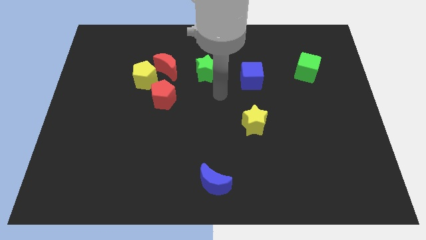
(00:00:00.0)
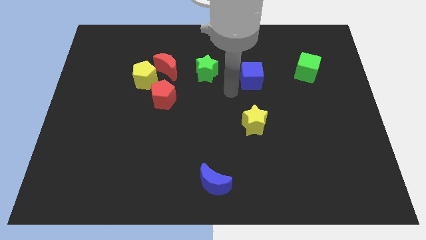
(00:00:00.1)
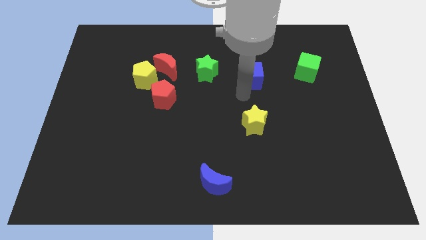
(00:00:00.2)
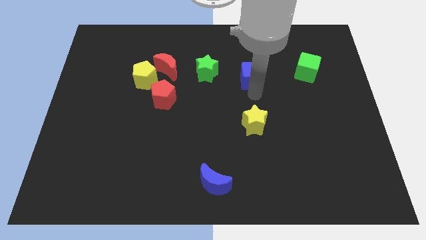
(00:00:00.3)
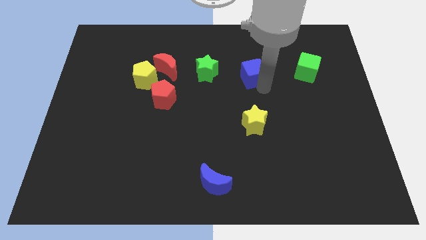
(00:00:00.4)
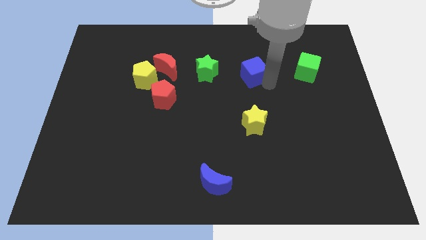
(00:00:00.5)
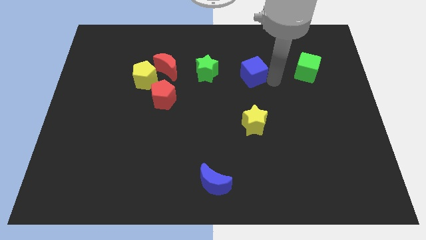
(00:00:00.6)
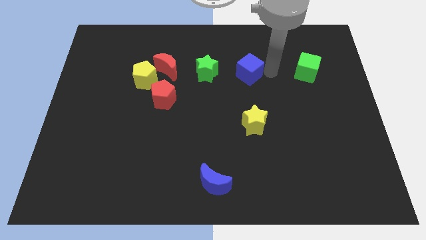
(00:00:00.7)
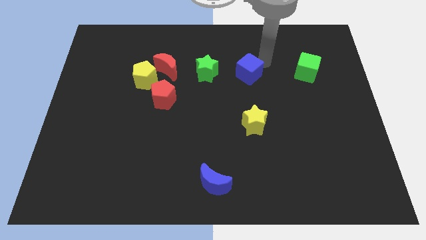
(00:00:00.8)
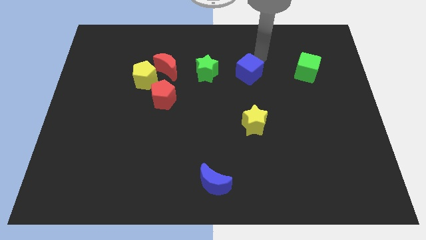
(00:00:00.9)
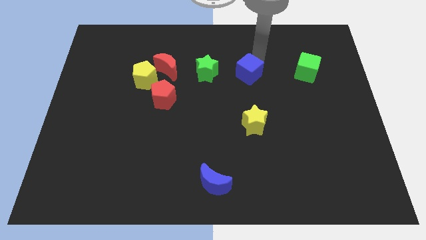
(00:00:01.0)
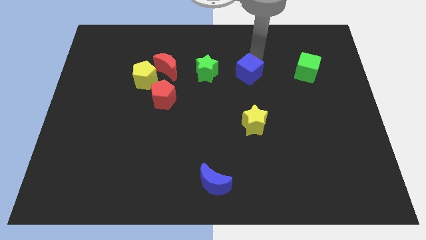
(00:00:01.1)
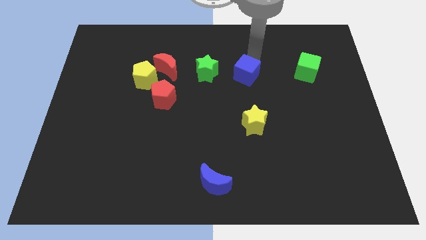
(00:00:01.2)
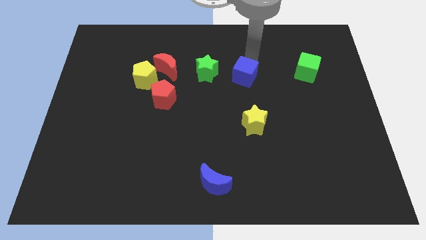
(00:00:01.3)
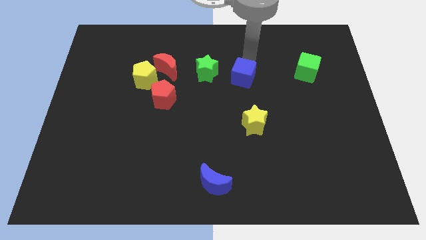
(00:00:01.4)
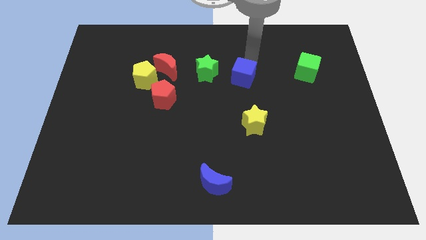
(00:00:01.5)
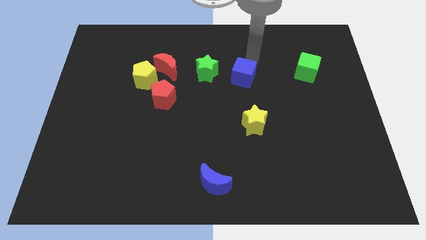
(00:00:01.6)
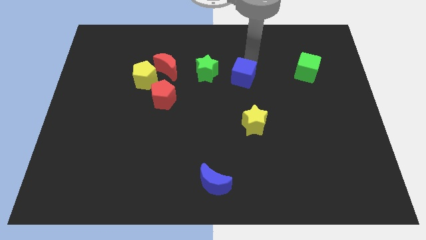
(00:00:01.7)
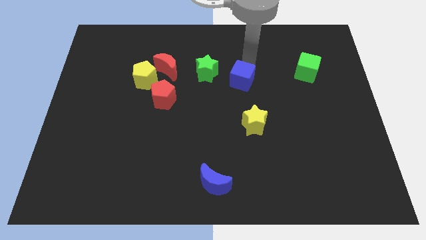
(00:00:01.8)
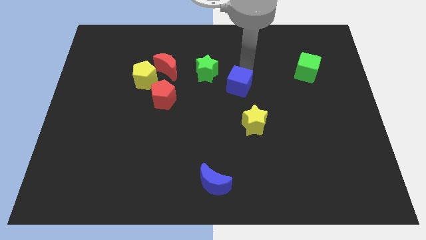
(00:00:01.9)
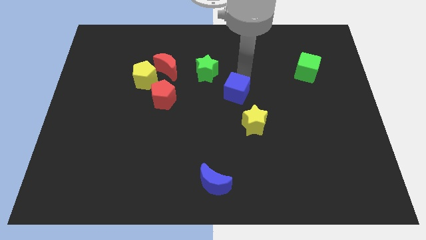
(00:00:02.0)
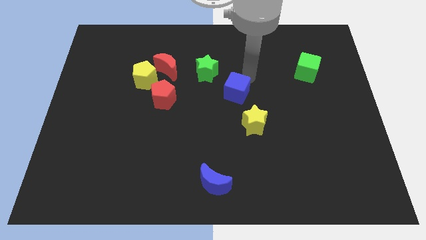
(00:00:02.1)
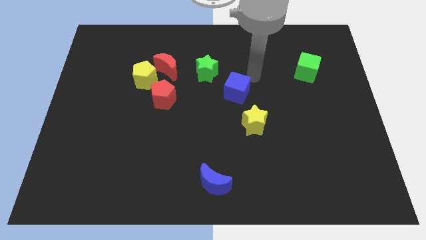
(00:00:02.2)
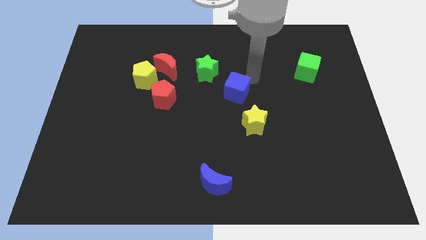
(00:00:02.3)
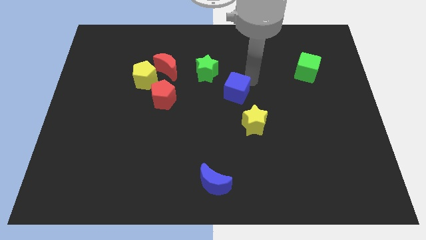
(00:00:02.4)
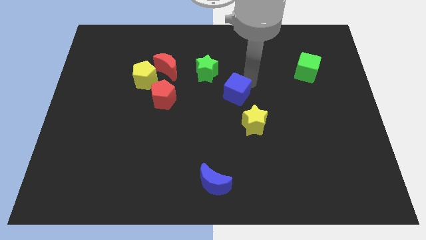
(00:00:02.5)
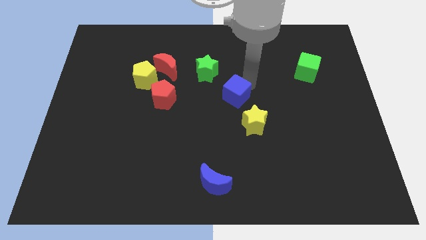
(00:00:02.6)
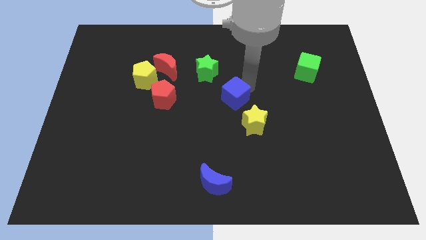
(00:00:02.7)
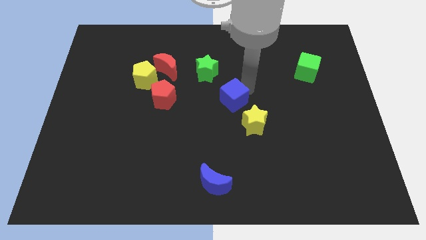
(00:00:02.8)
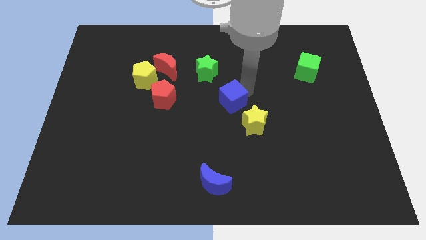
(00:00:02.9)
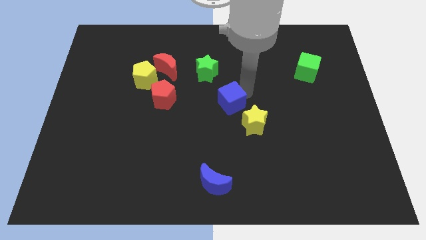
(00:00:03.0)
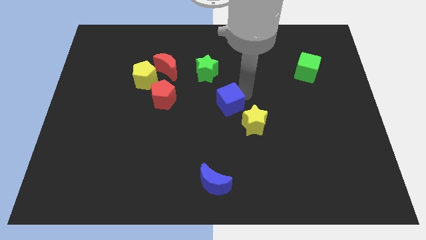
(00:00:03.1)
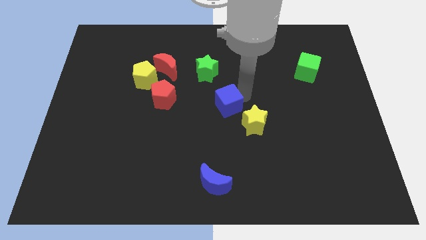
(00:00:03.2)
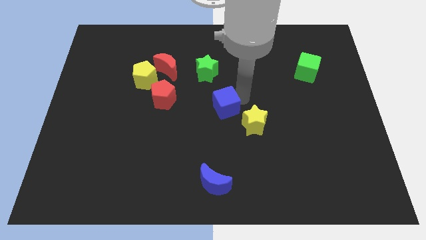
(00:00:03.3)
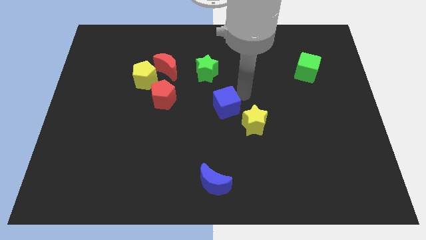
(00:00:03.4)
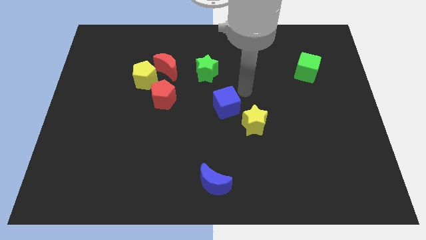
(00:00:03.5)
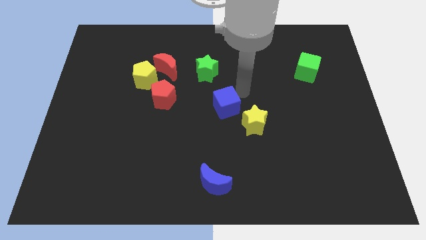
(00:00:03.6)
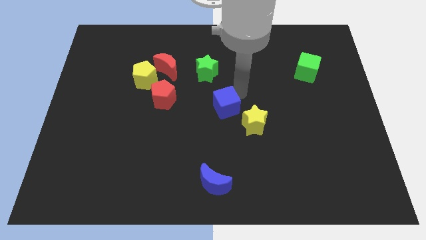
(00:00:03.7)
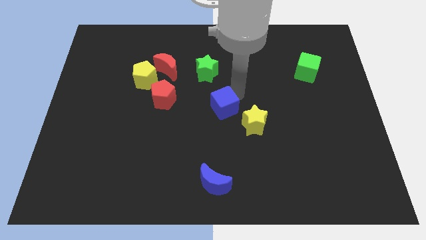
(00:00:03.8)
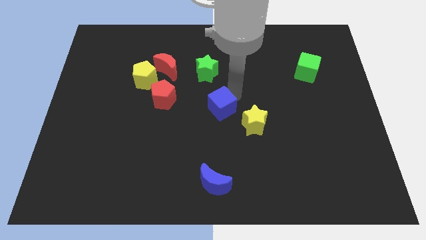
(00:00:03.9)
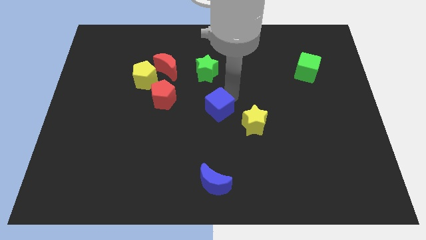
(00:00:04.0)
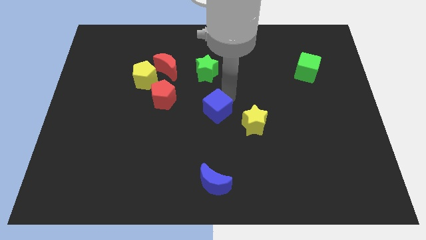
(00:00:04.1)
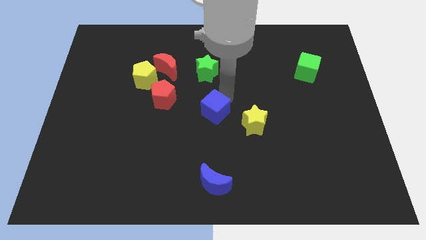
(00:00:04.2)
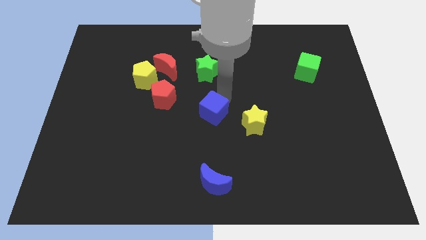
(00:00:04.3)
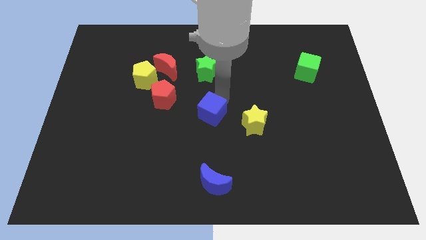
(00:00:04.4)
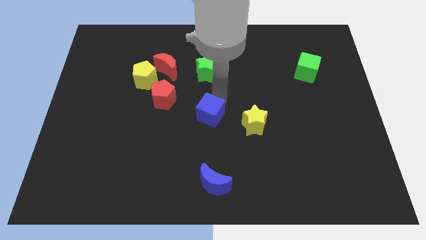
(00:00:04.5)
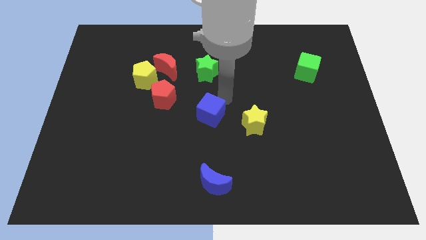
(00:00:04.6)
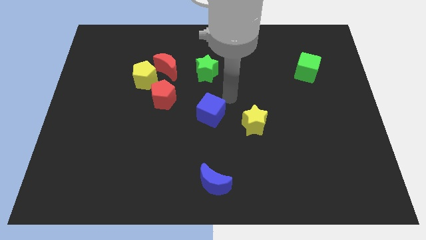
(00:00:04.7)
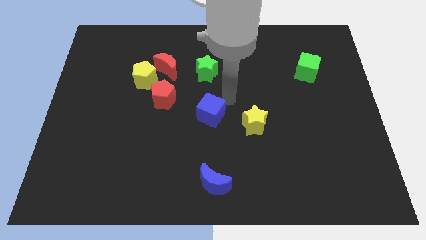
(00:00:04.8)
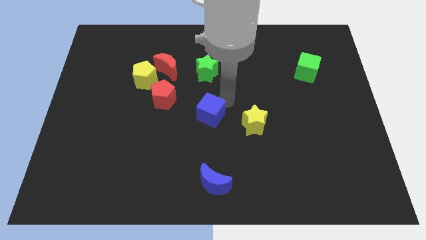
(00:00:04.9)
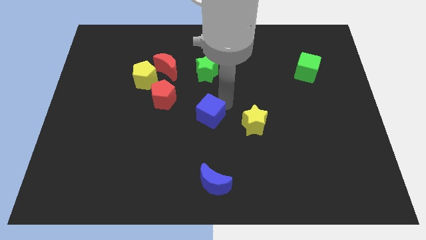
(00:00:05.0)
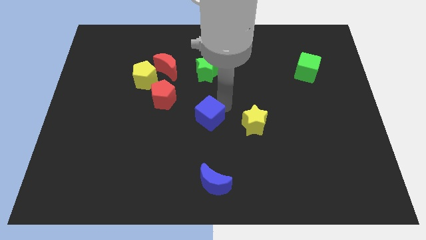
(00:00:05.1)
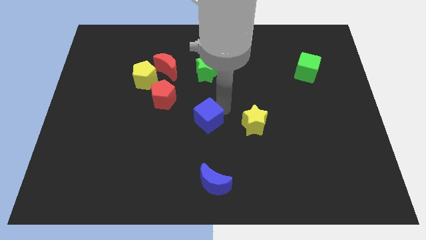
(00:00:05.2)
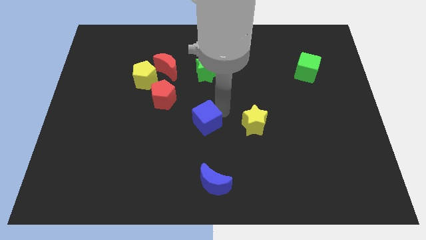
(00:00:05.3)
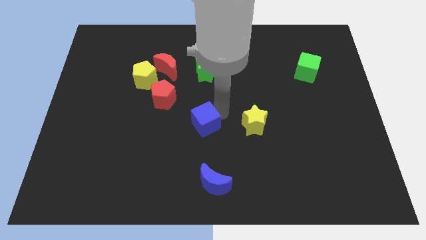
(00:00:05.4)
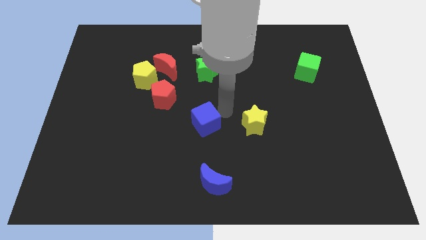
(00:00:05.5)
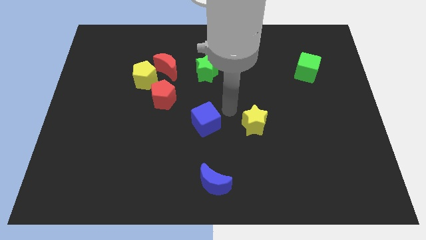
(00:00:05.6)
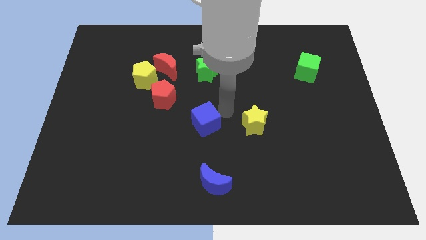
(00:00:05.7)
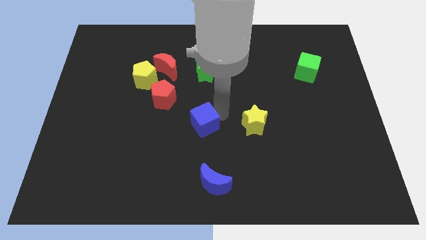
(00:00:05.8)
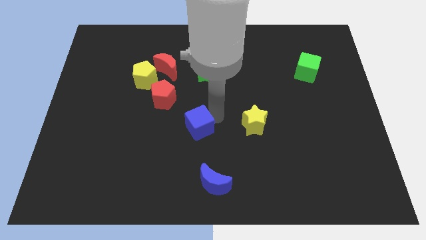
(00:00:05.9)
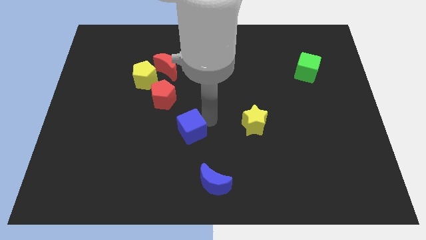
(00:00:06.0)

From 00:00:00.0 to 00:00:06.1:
push the blue cube diagonally downwards and to the left

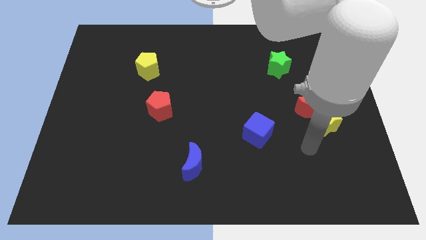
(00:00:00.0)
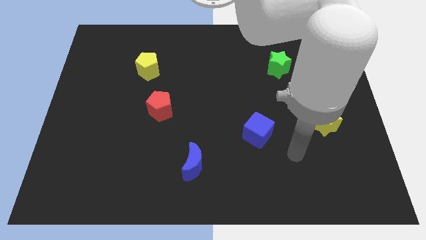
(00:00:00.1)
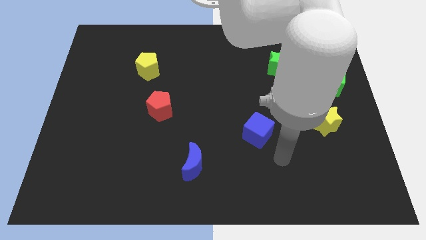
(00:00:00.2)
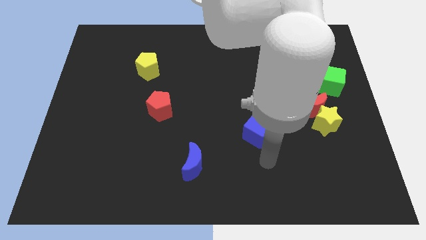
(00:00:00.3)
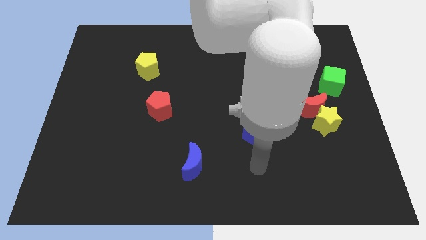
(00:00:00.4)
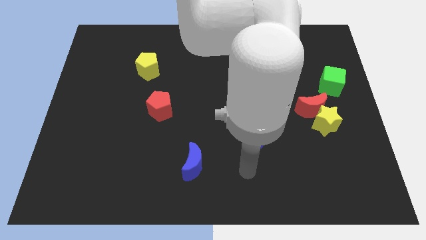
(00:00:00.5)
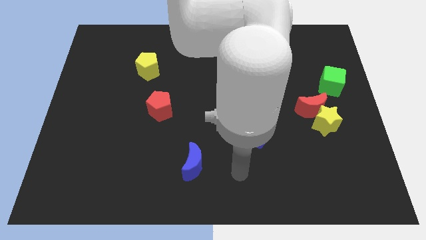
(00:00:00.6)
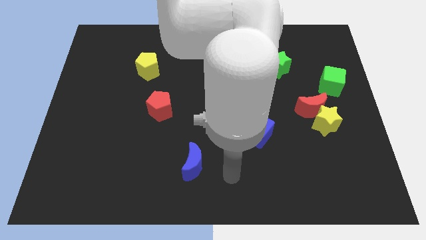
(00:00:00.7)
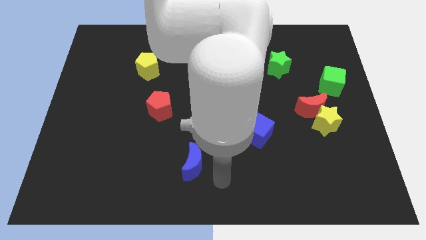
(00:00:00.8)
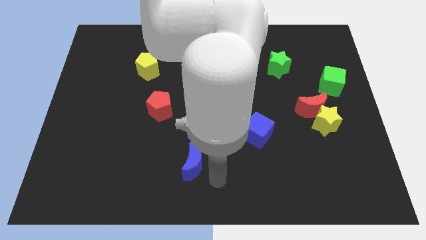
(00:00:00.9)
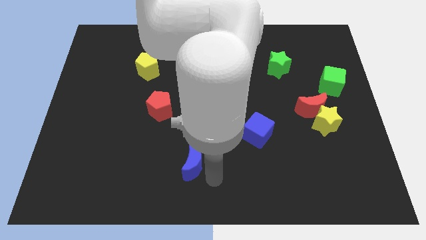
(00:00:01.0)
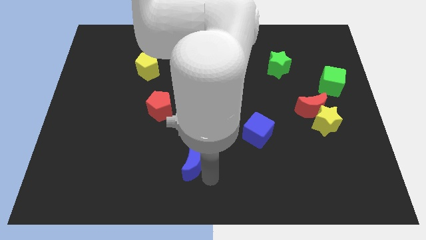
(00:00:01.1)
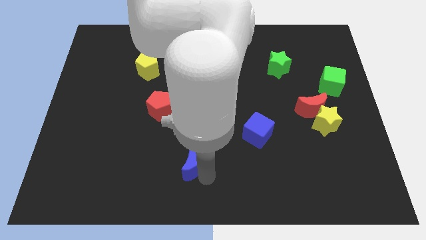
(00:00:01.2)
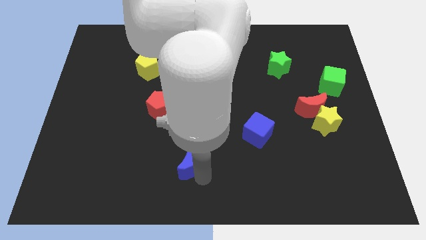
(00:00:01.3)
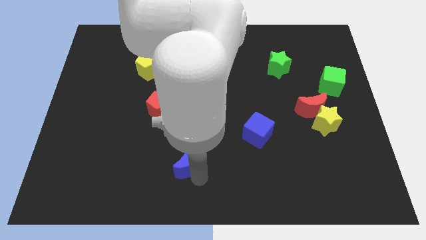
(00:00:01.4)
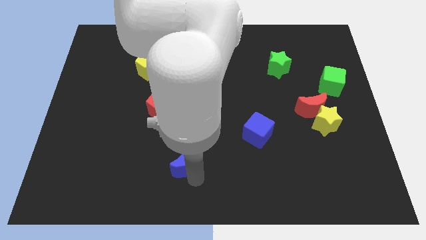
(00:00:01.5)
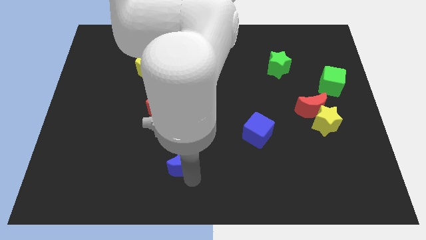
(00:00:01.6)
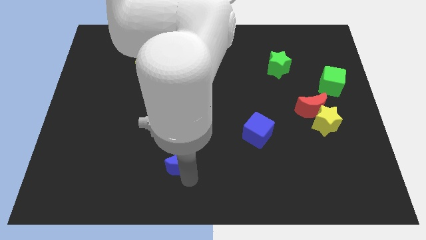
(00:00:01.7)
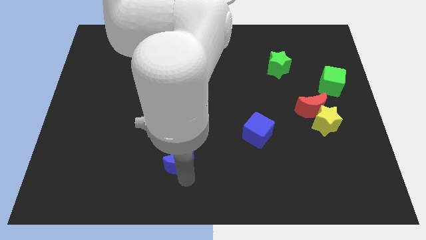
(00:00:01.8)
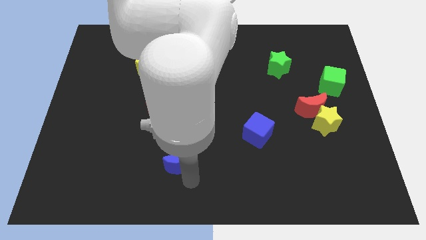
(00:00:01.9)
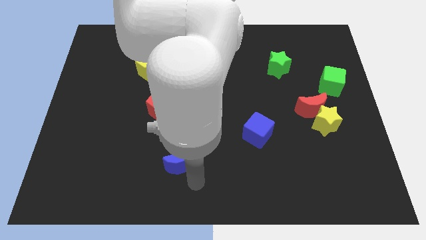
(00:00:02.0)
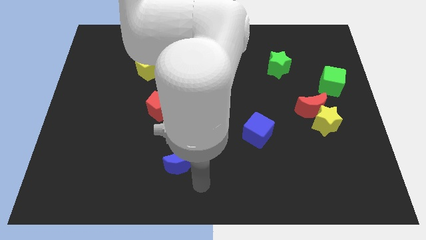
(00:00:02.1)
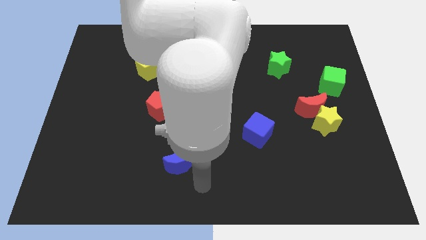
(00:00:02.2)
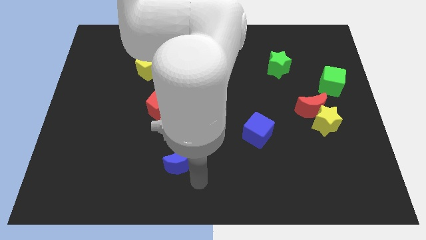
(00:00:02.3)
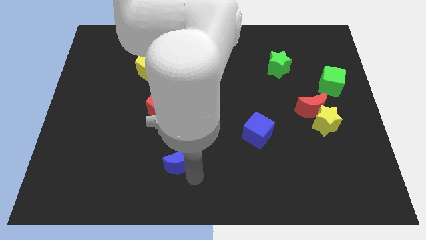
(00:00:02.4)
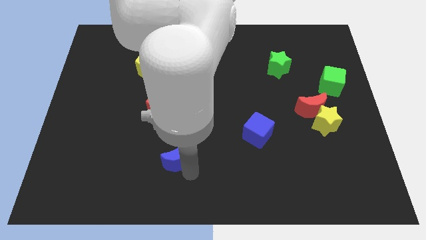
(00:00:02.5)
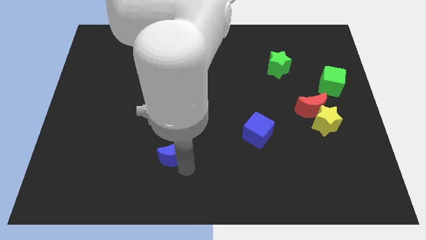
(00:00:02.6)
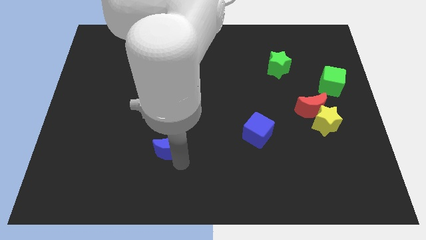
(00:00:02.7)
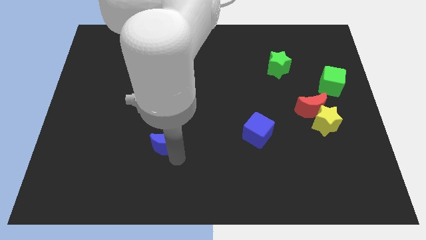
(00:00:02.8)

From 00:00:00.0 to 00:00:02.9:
push the blue moon a bit up and then to the left
